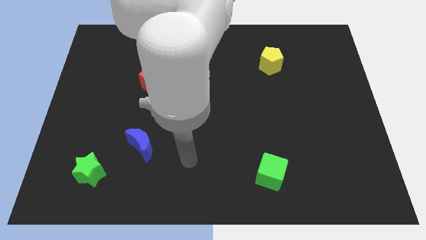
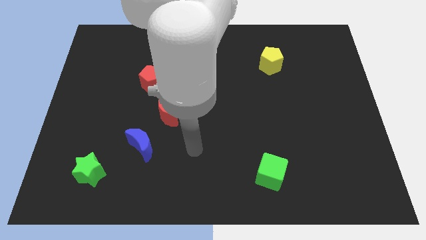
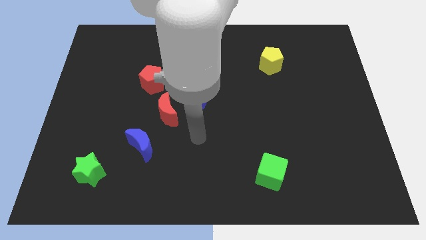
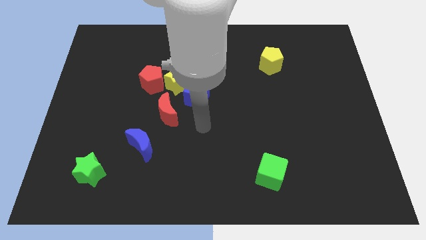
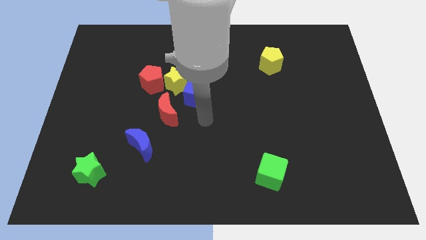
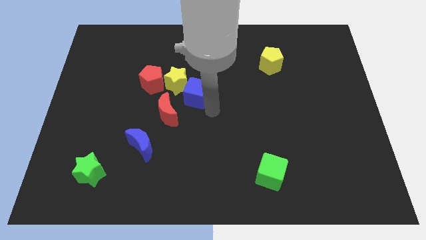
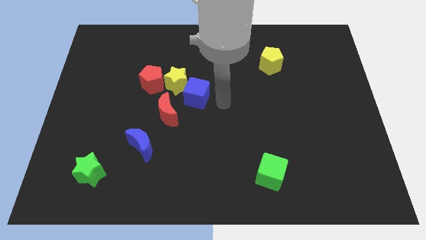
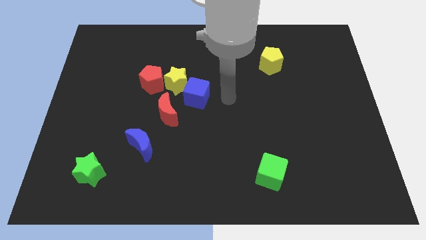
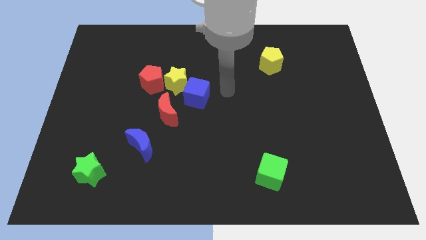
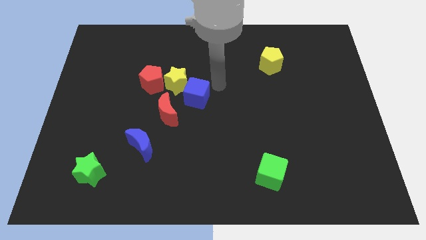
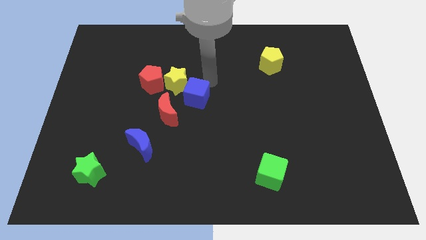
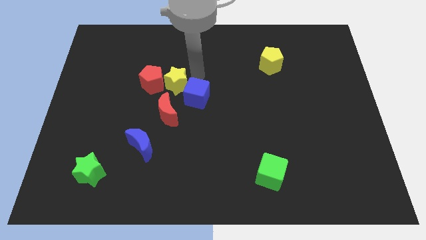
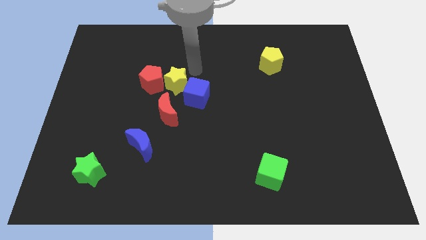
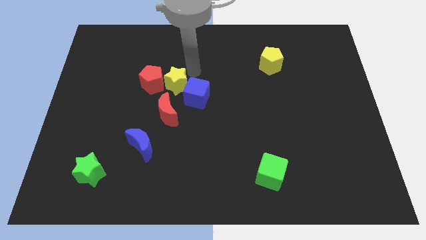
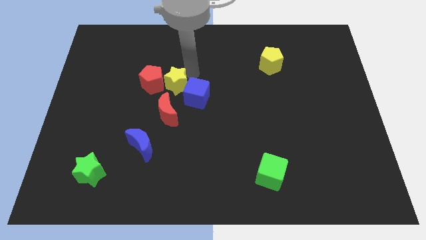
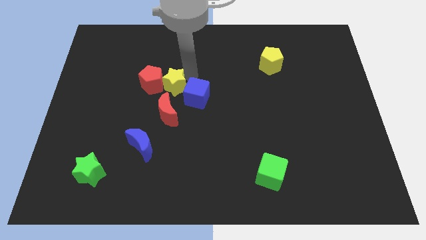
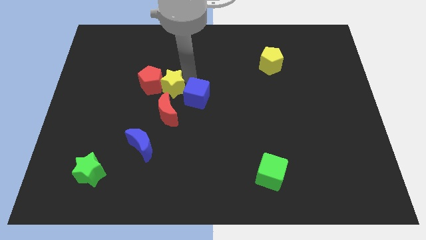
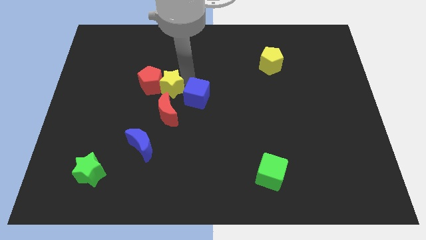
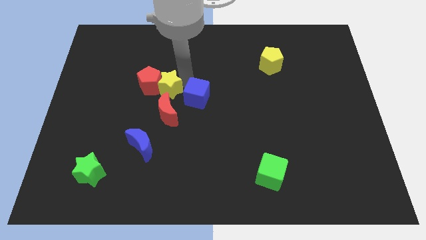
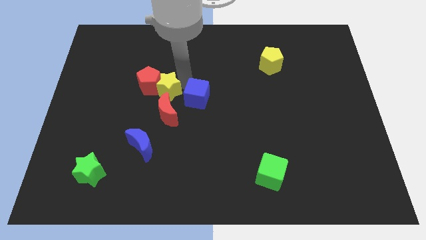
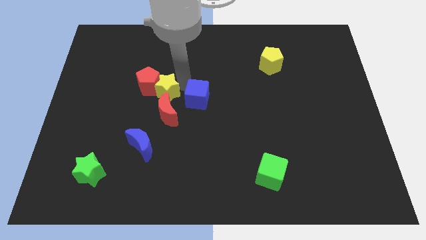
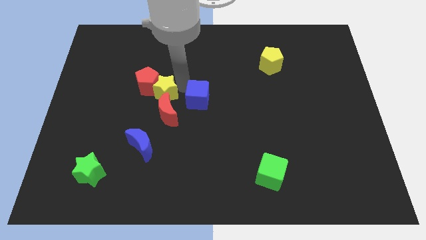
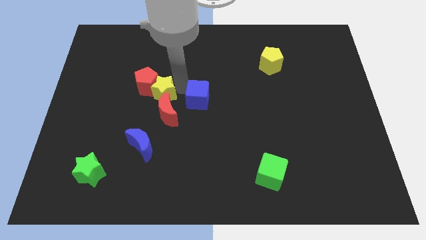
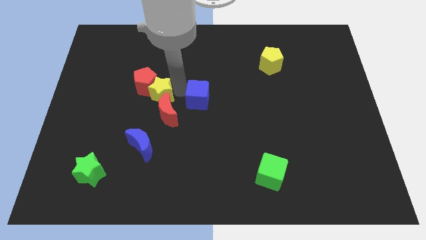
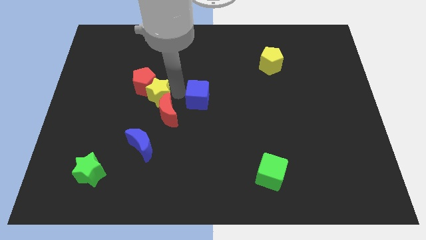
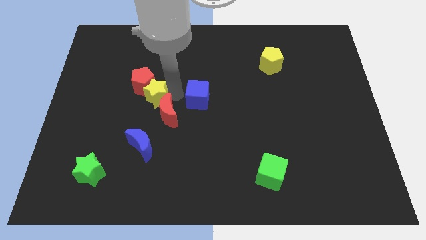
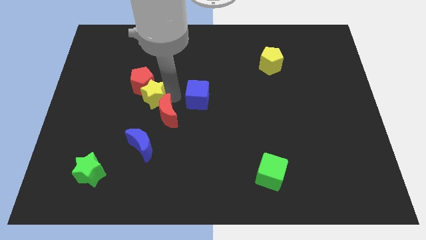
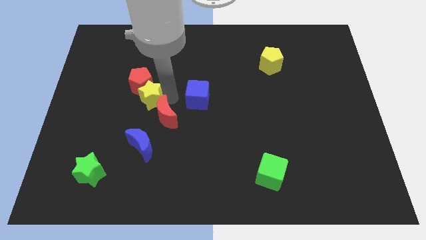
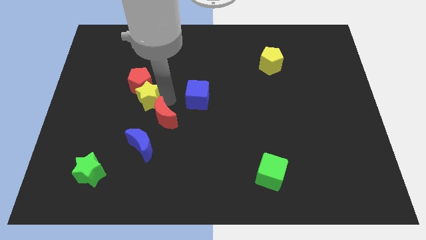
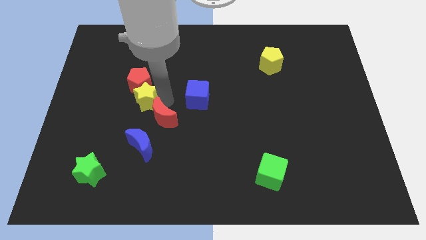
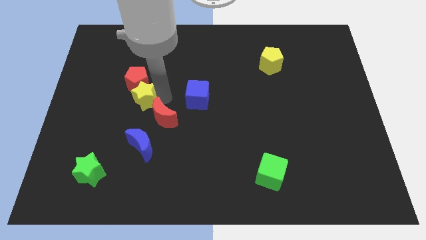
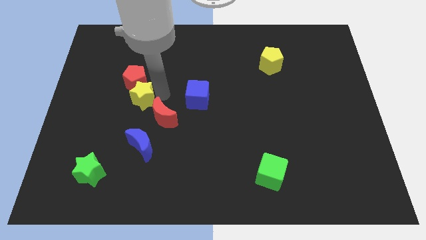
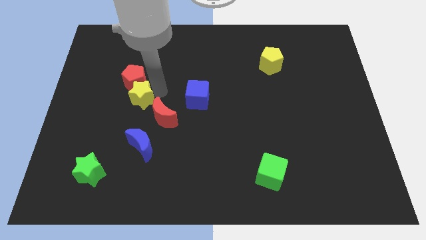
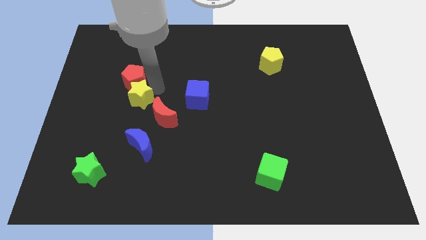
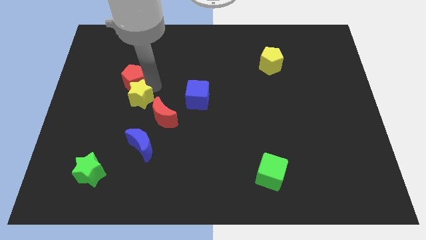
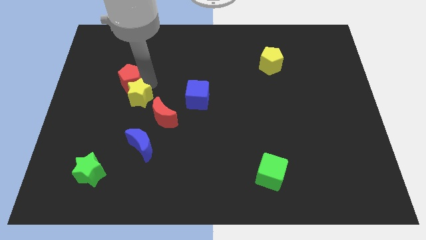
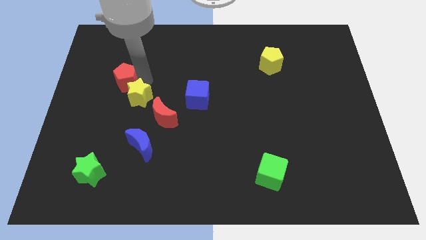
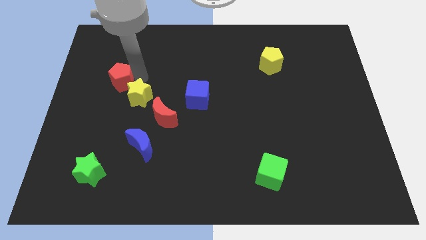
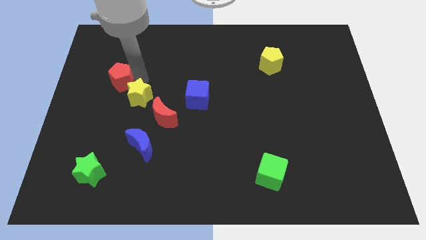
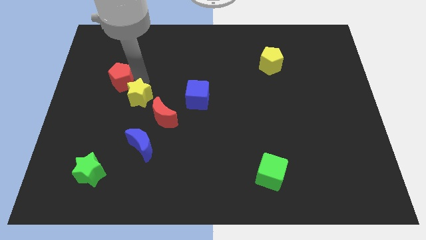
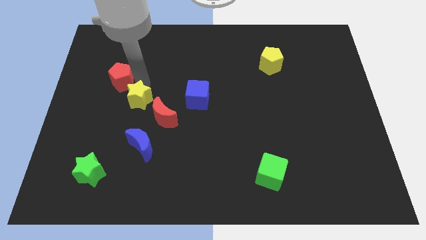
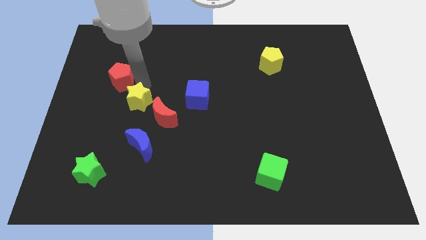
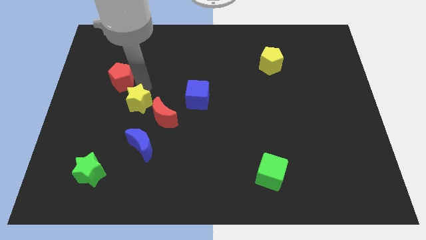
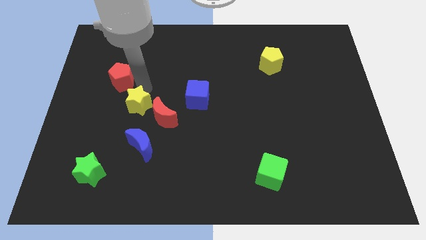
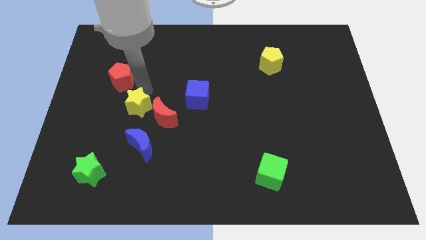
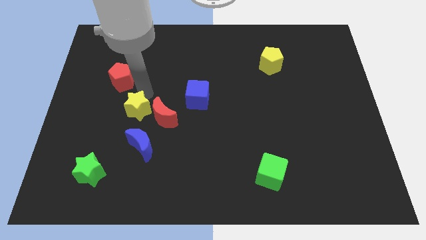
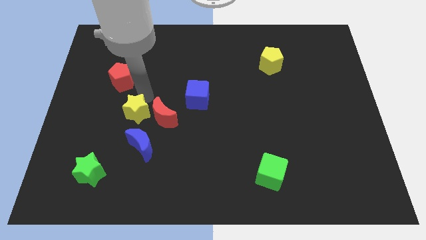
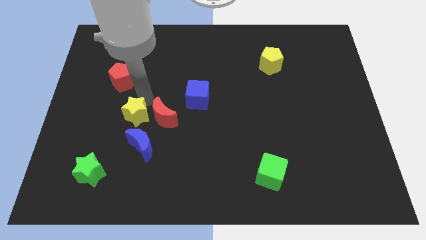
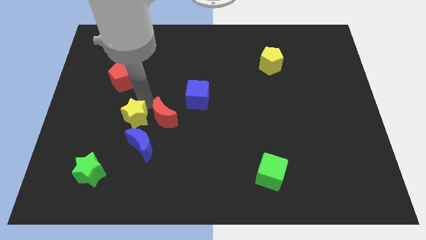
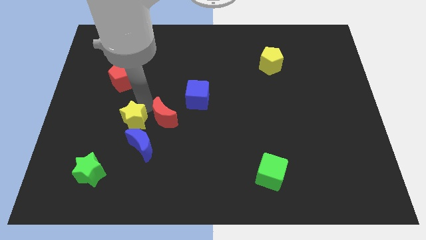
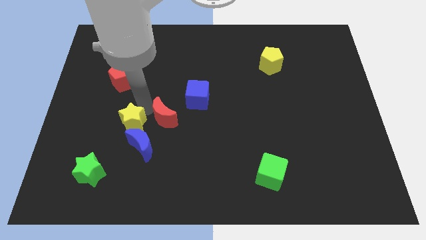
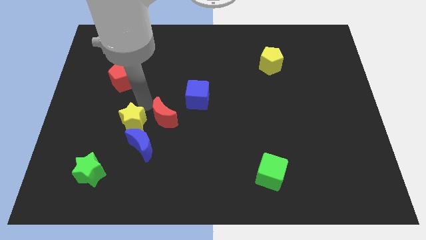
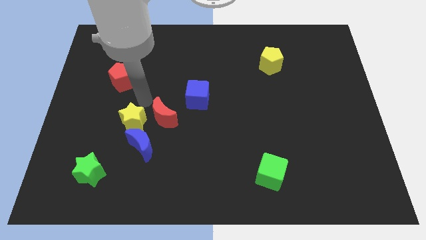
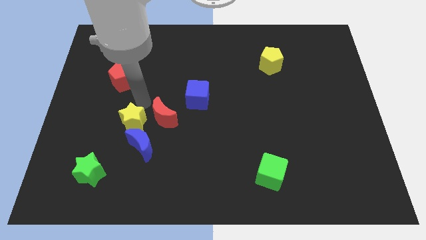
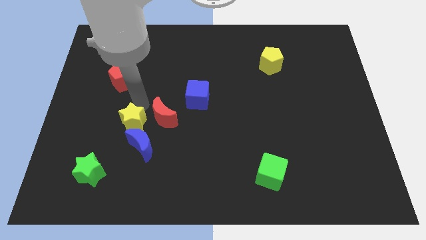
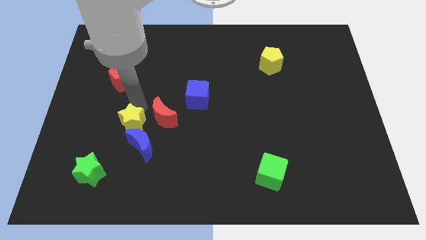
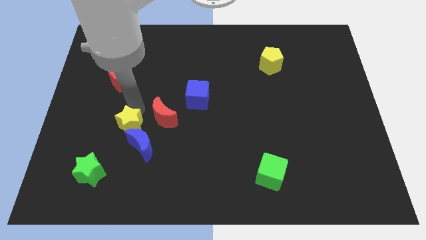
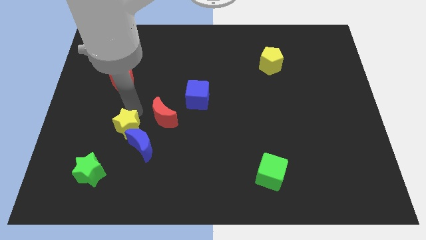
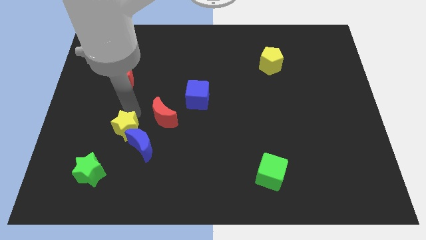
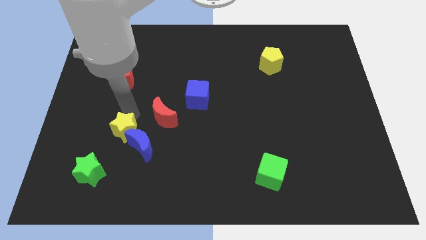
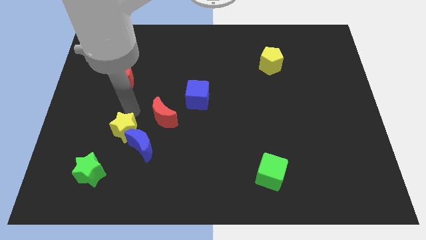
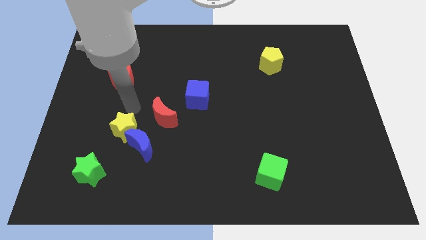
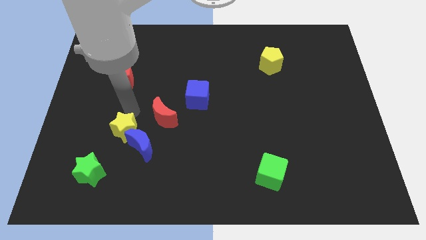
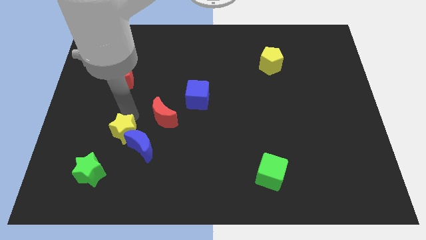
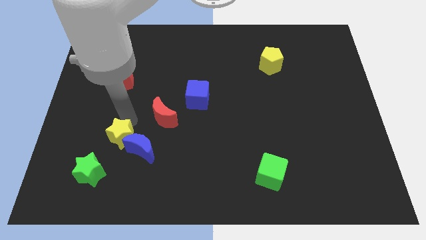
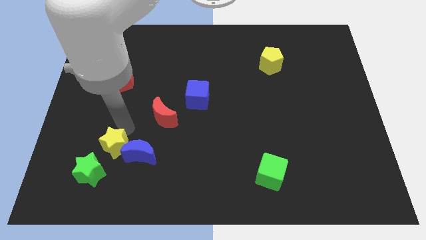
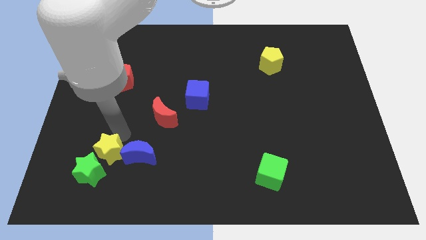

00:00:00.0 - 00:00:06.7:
put the yellow star to the bottom left of the blue moon

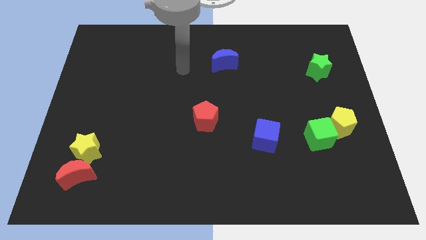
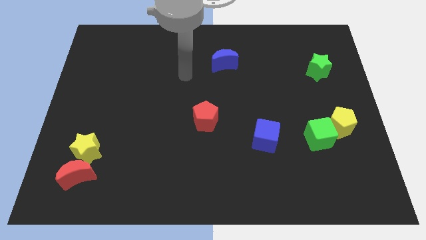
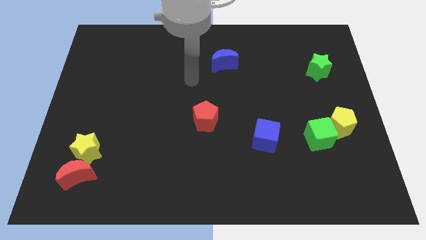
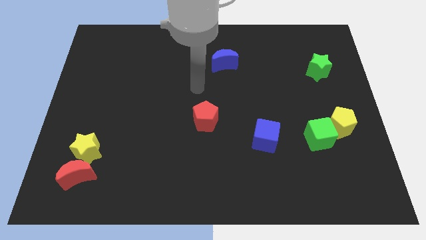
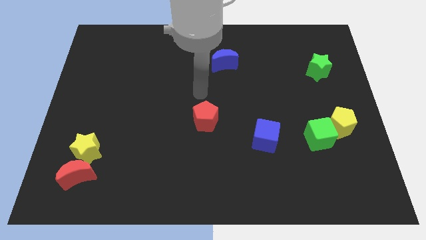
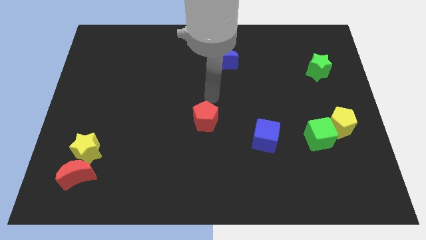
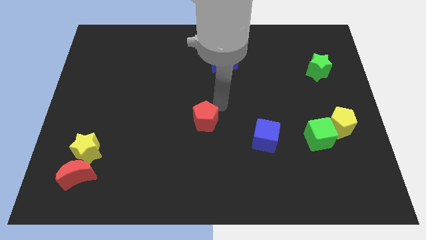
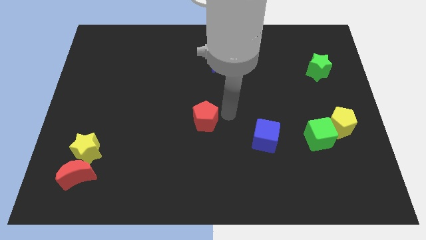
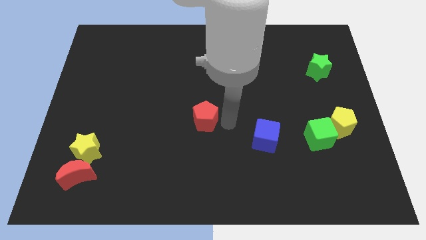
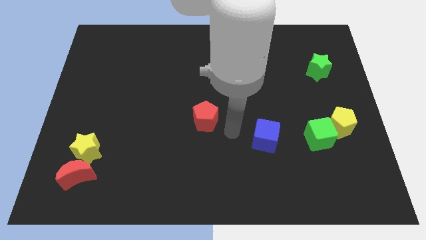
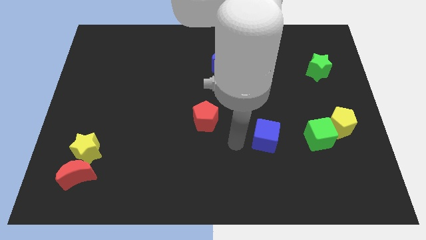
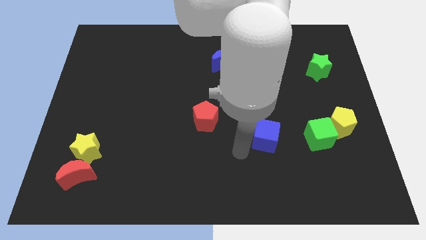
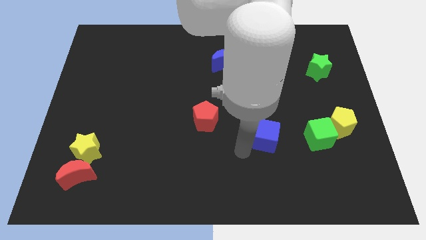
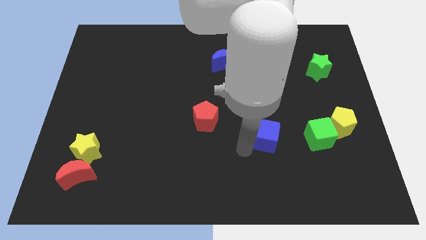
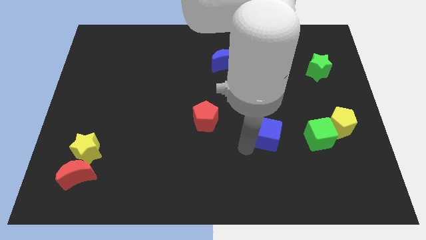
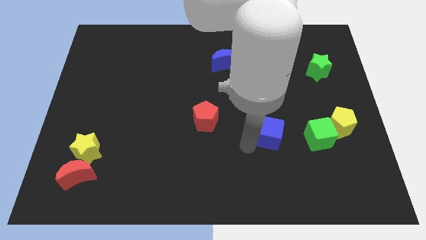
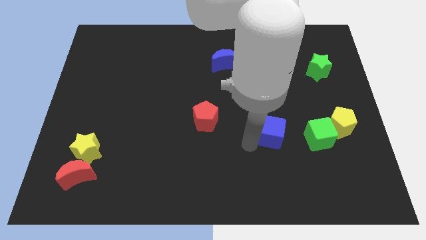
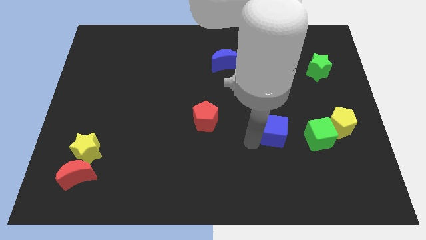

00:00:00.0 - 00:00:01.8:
move the blue cube left of the yellow pentagon
